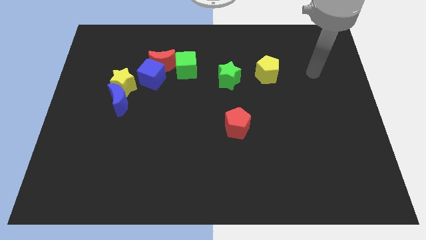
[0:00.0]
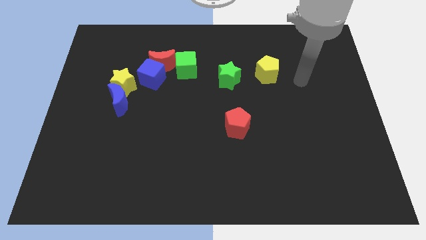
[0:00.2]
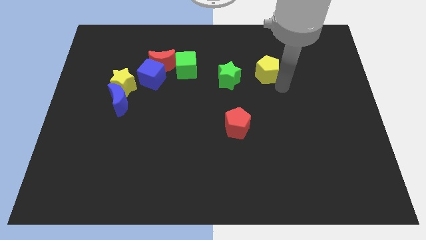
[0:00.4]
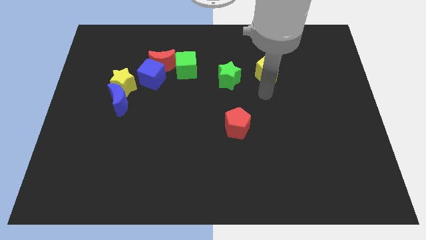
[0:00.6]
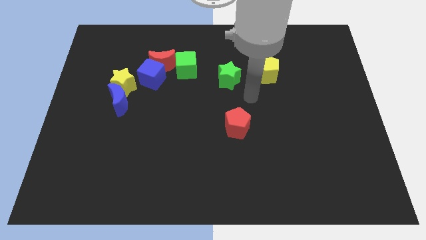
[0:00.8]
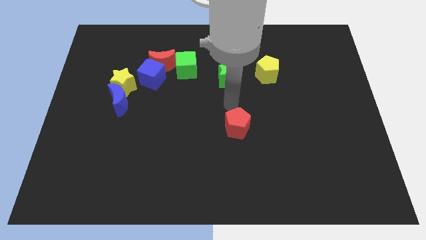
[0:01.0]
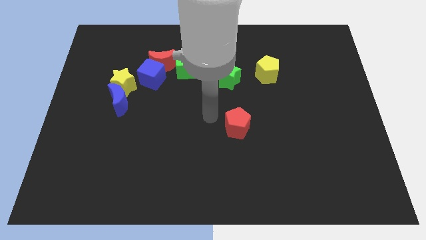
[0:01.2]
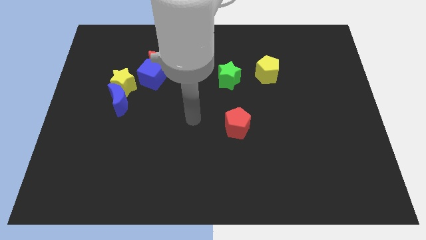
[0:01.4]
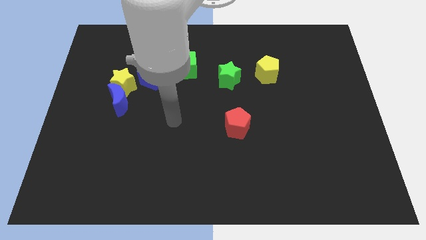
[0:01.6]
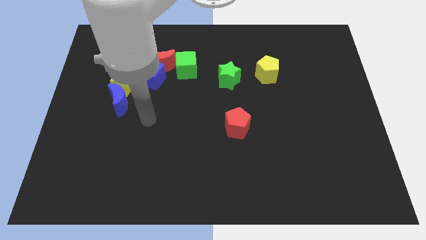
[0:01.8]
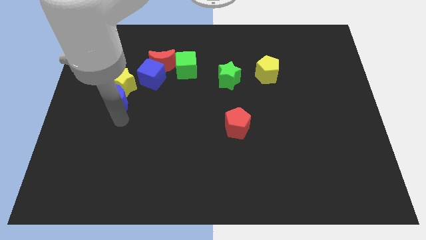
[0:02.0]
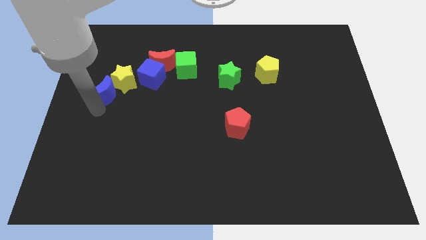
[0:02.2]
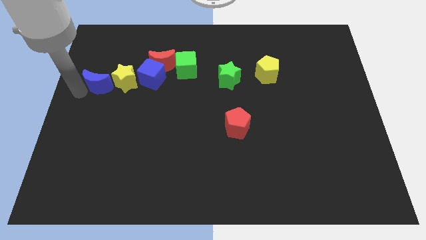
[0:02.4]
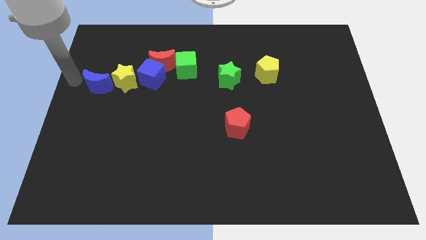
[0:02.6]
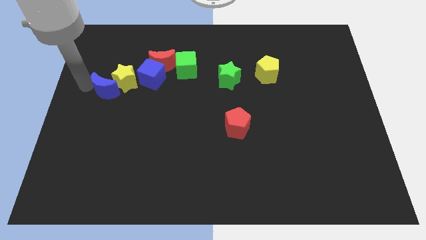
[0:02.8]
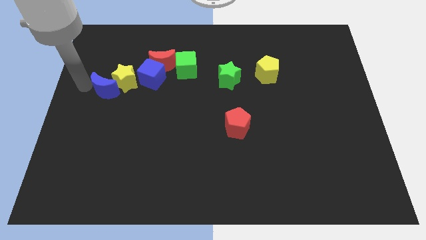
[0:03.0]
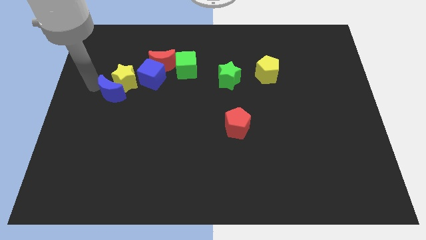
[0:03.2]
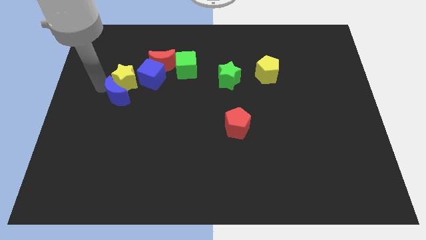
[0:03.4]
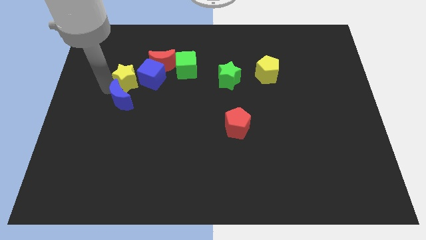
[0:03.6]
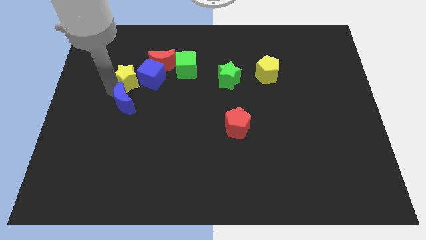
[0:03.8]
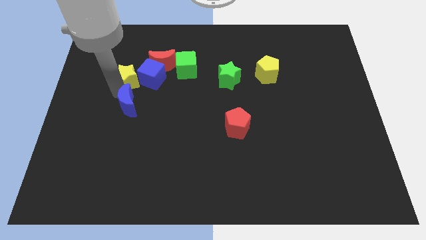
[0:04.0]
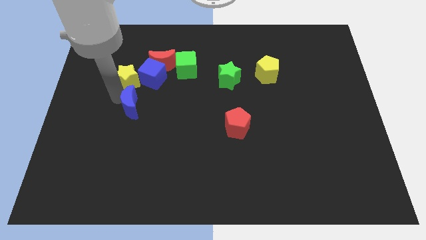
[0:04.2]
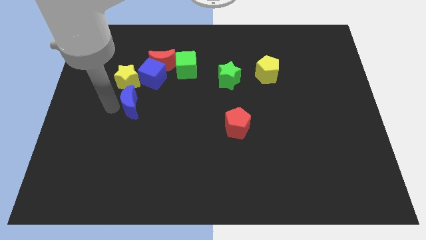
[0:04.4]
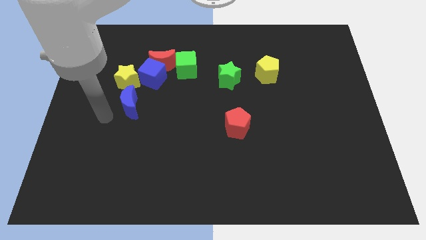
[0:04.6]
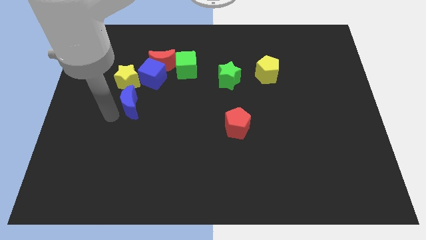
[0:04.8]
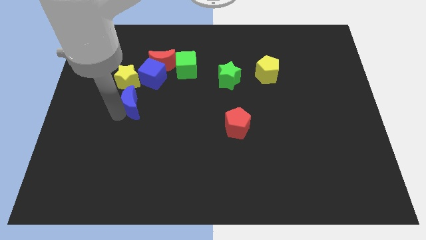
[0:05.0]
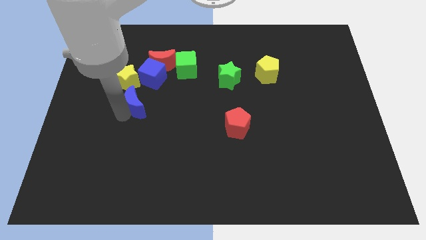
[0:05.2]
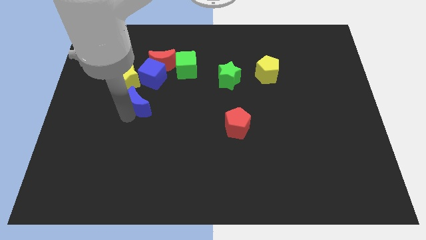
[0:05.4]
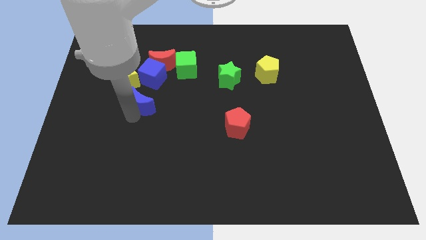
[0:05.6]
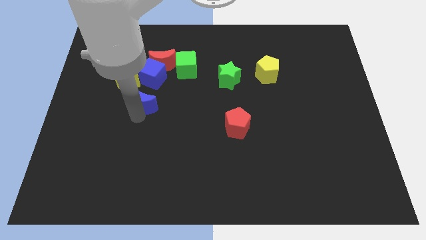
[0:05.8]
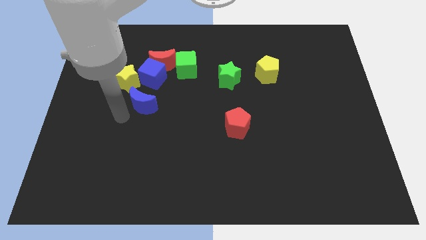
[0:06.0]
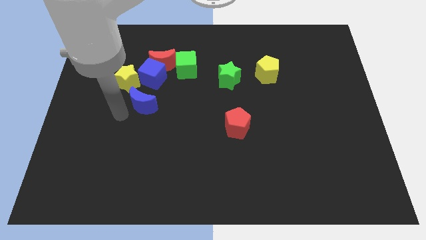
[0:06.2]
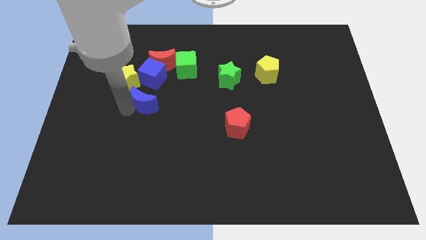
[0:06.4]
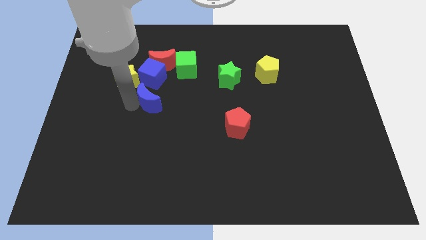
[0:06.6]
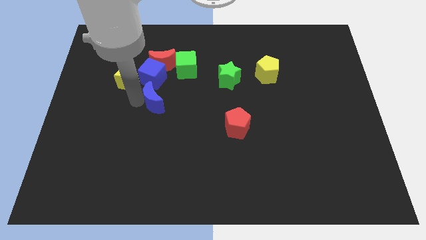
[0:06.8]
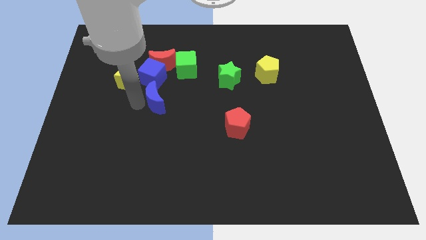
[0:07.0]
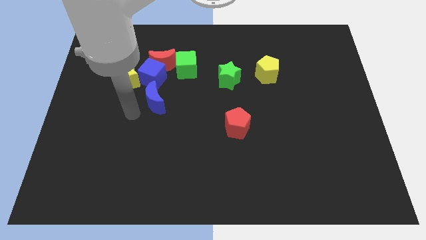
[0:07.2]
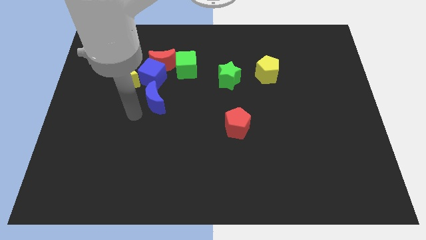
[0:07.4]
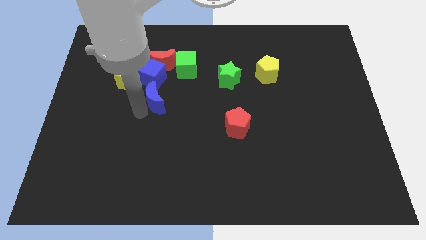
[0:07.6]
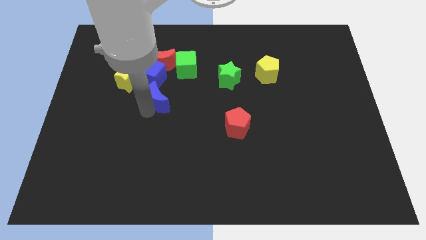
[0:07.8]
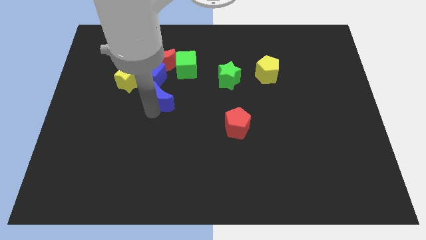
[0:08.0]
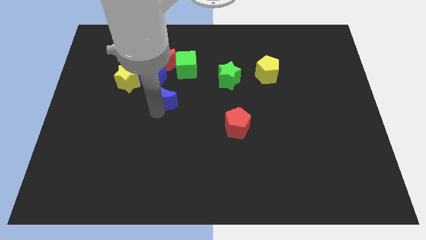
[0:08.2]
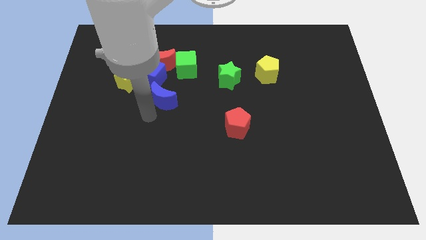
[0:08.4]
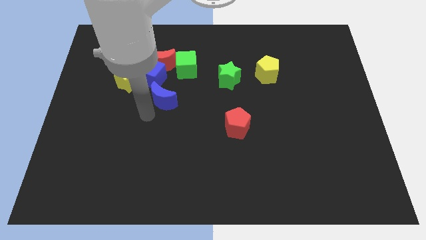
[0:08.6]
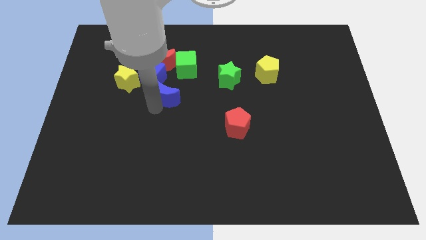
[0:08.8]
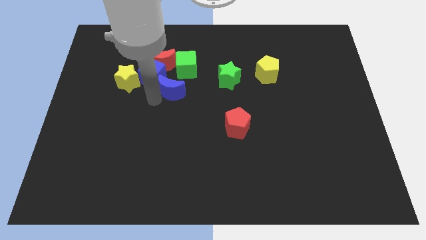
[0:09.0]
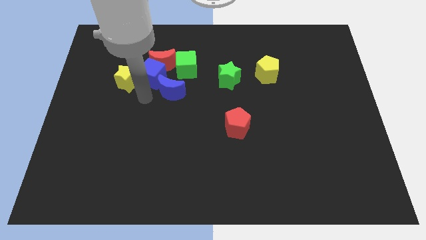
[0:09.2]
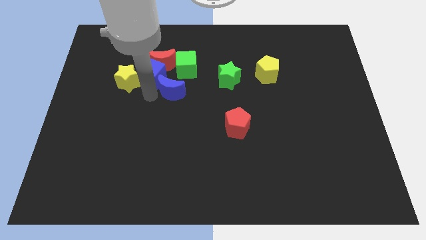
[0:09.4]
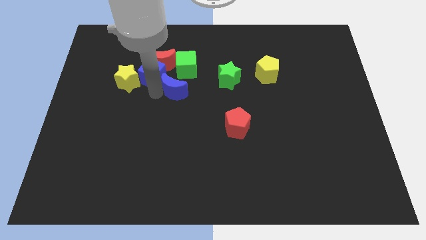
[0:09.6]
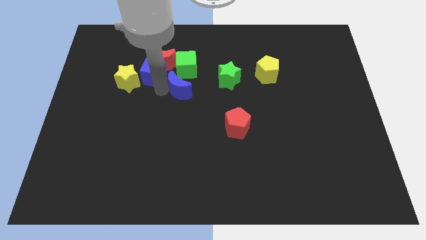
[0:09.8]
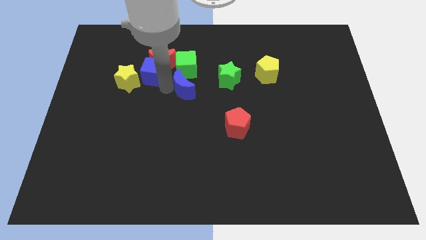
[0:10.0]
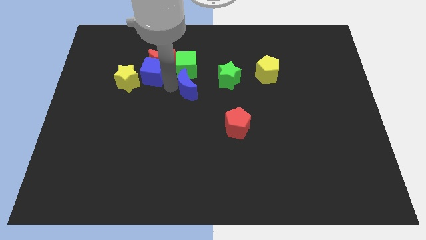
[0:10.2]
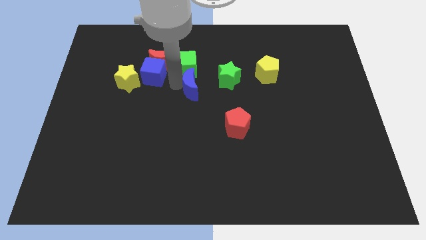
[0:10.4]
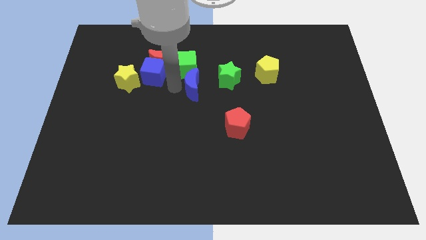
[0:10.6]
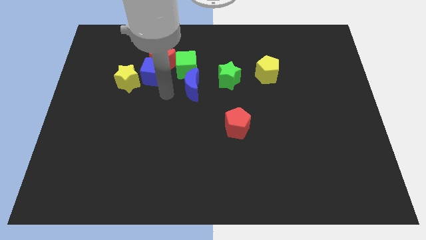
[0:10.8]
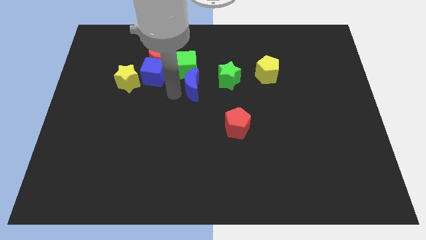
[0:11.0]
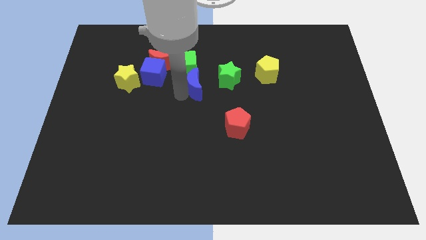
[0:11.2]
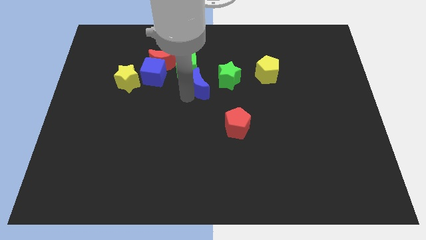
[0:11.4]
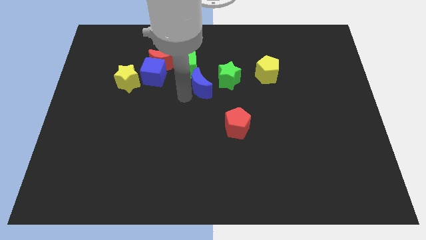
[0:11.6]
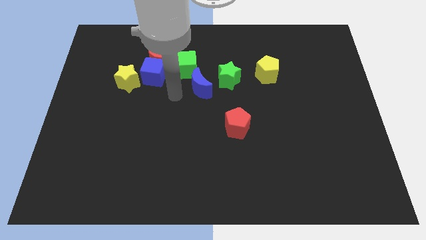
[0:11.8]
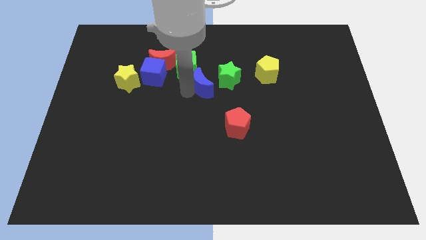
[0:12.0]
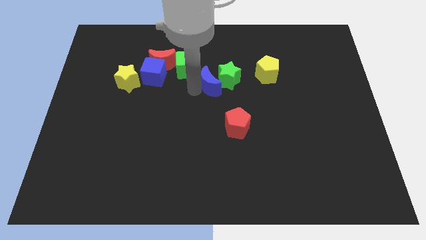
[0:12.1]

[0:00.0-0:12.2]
push the blue moon close to the green star
